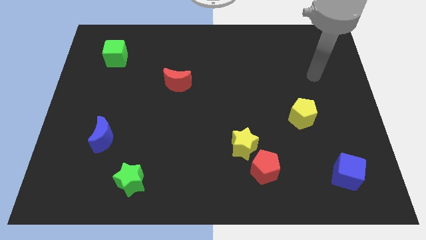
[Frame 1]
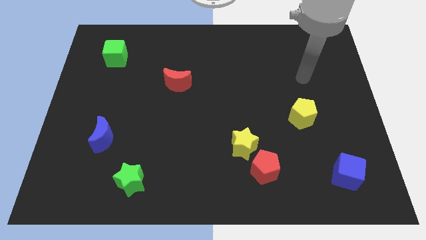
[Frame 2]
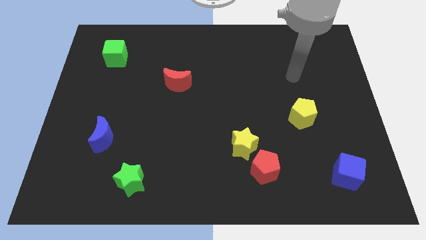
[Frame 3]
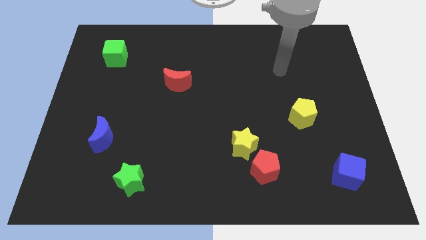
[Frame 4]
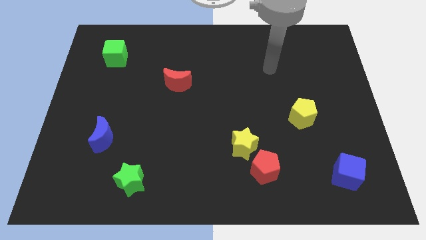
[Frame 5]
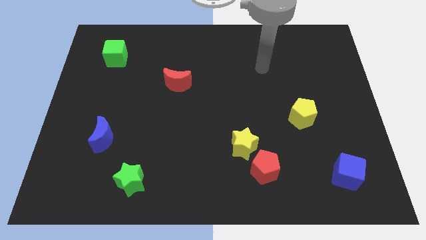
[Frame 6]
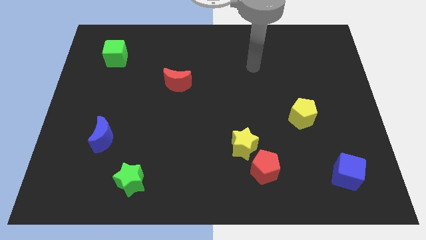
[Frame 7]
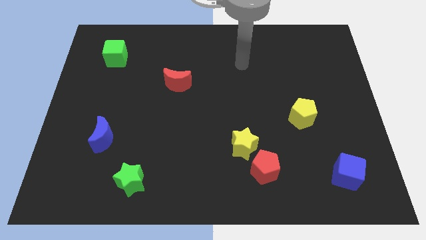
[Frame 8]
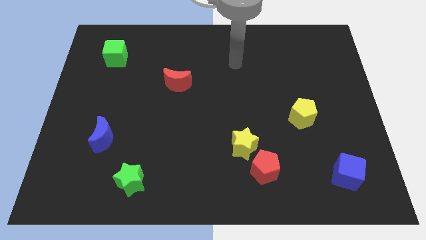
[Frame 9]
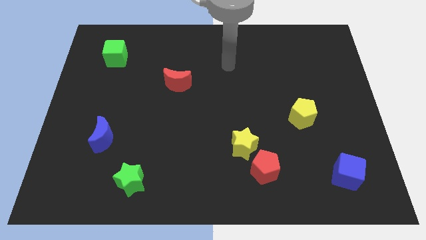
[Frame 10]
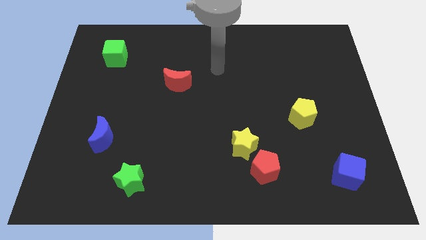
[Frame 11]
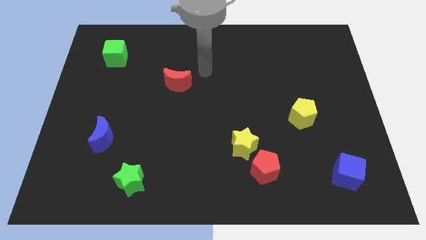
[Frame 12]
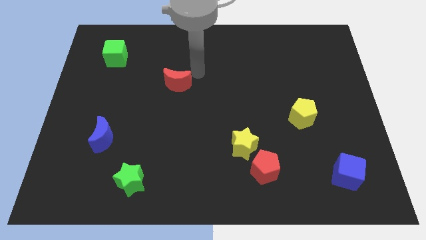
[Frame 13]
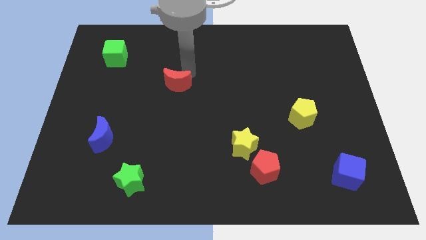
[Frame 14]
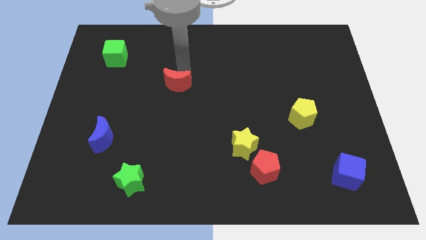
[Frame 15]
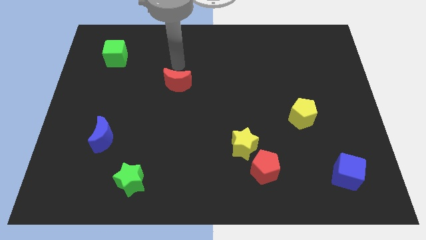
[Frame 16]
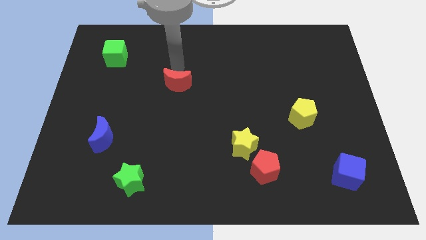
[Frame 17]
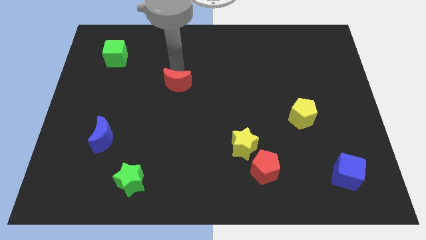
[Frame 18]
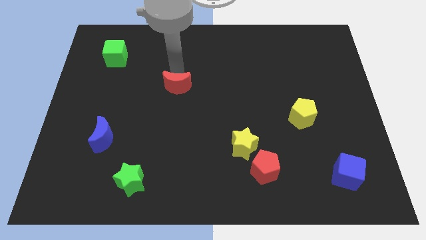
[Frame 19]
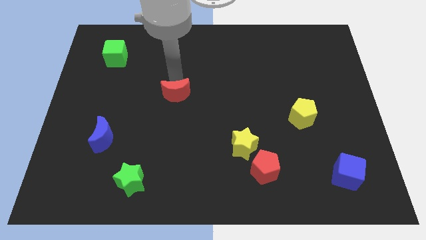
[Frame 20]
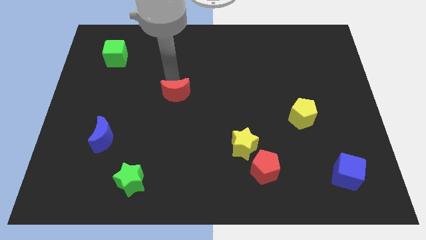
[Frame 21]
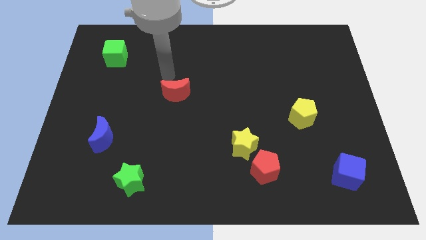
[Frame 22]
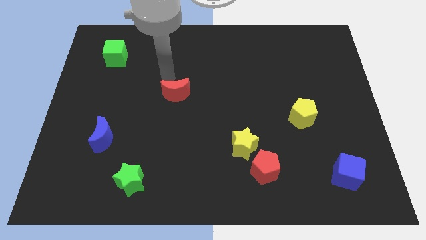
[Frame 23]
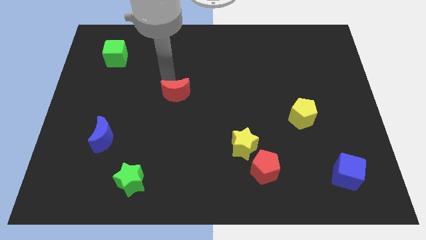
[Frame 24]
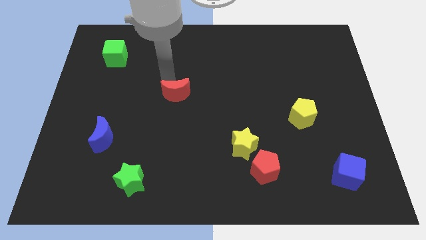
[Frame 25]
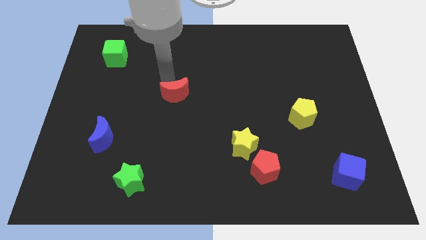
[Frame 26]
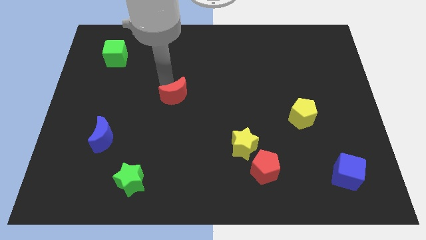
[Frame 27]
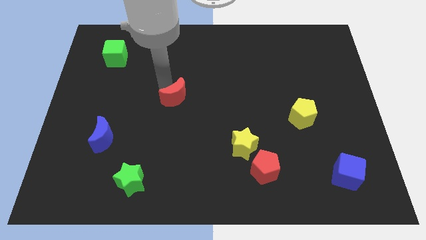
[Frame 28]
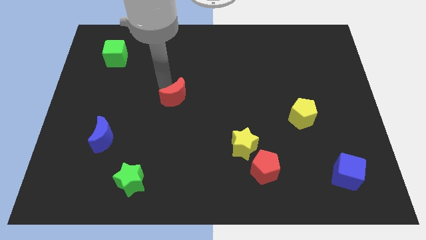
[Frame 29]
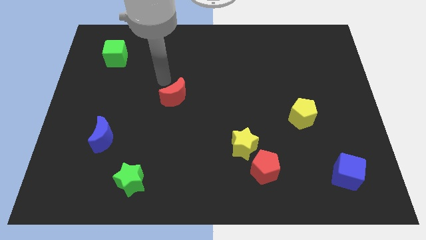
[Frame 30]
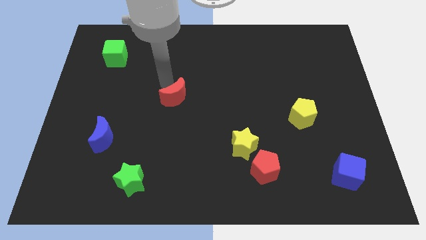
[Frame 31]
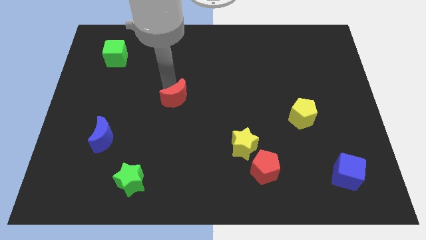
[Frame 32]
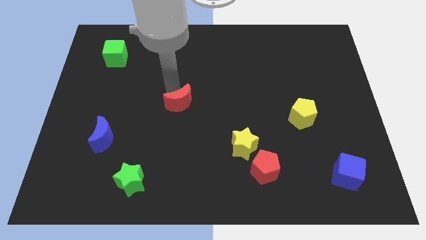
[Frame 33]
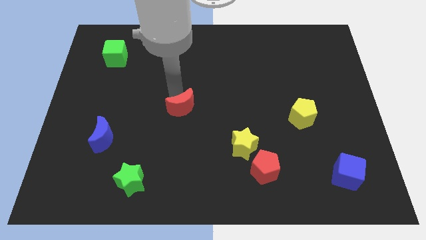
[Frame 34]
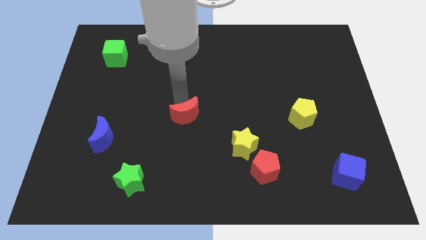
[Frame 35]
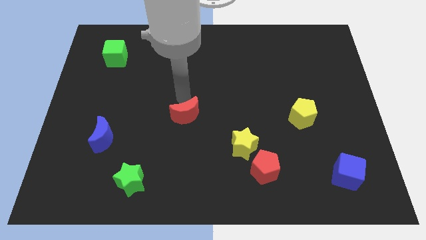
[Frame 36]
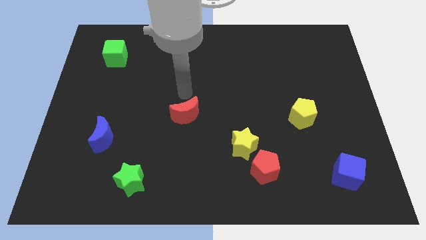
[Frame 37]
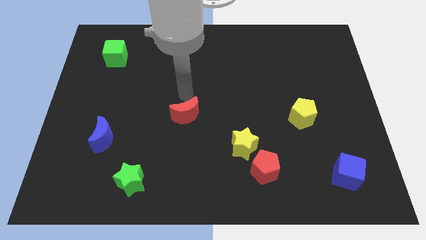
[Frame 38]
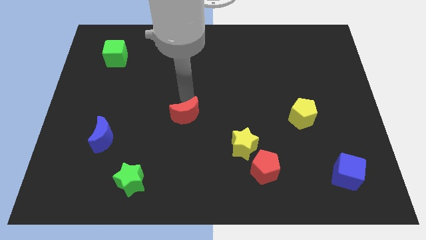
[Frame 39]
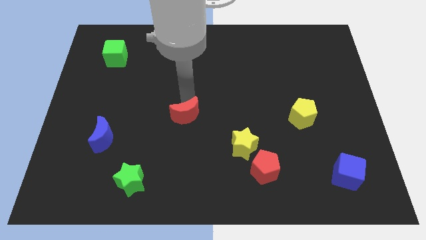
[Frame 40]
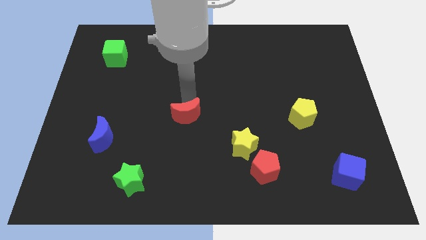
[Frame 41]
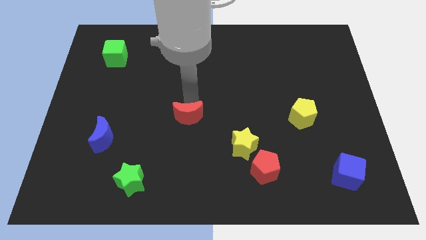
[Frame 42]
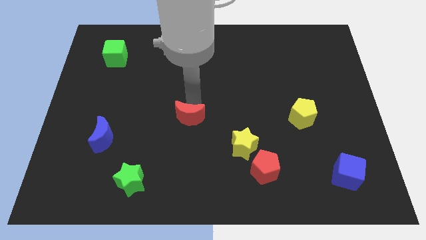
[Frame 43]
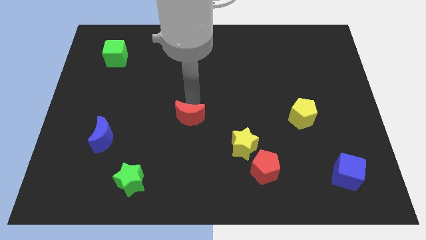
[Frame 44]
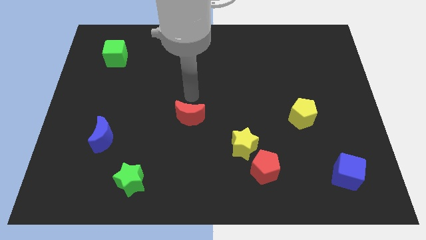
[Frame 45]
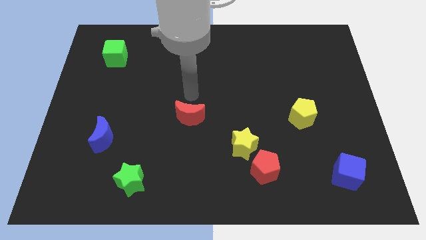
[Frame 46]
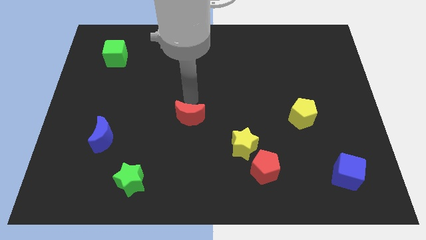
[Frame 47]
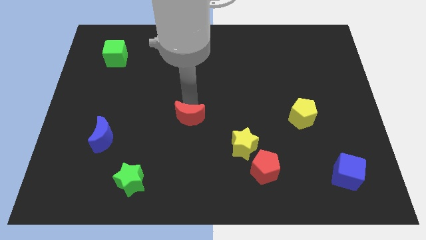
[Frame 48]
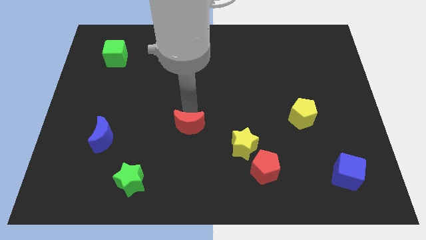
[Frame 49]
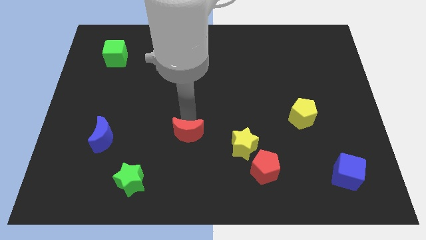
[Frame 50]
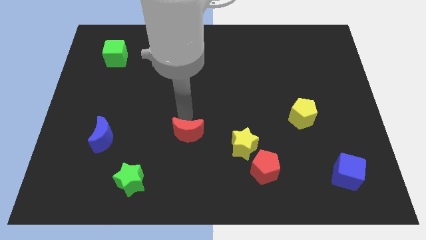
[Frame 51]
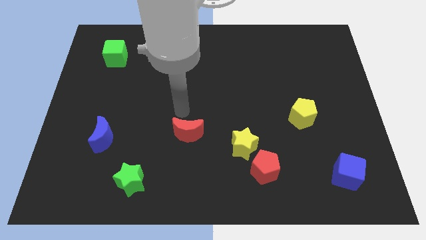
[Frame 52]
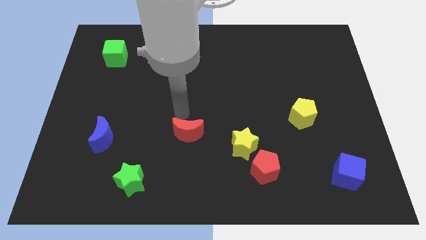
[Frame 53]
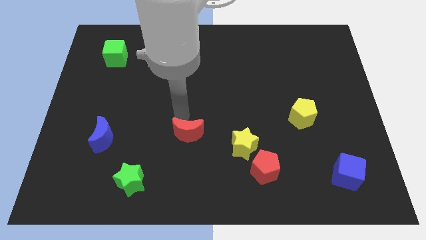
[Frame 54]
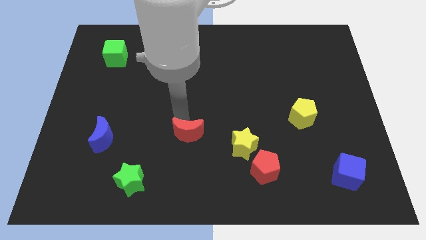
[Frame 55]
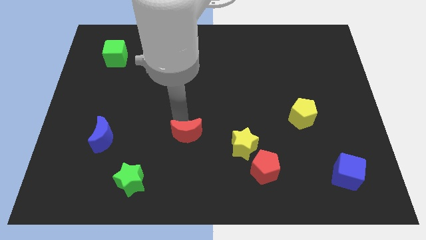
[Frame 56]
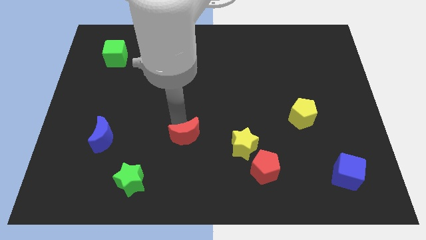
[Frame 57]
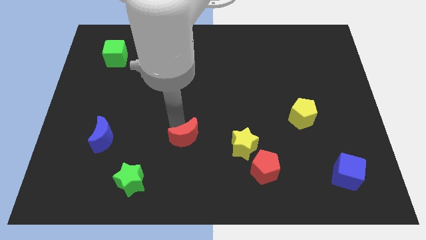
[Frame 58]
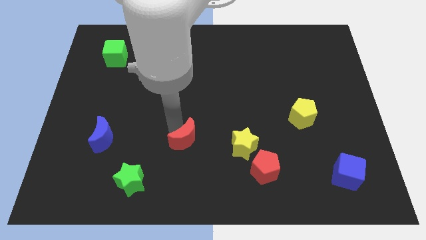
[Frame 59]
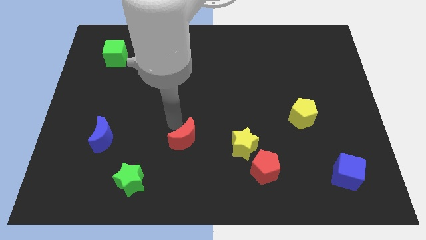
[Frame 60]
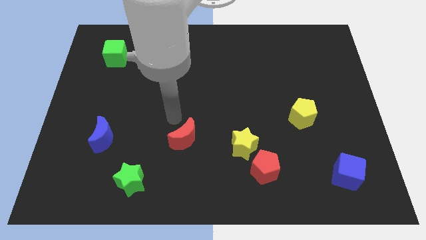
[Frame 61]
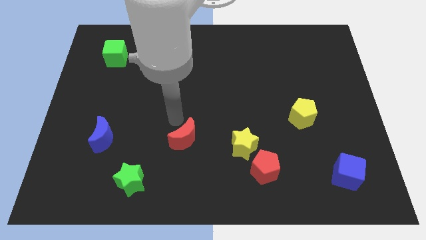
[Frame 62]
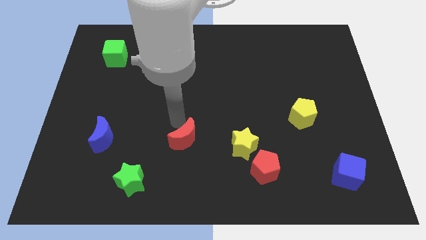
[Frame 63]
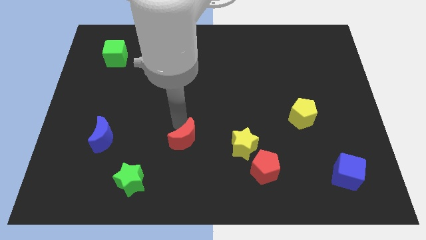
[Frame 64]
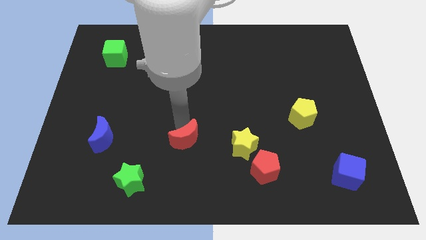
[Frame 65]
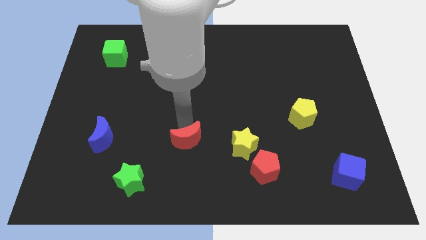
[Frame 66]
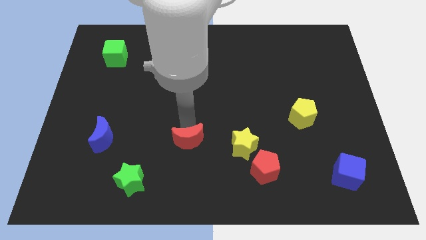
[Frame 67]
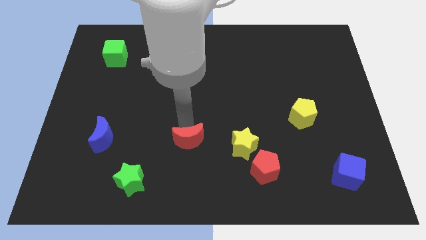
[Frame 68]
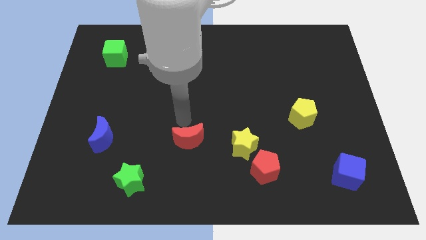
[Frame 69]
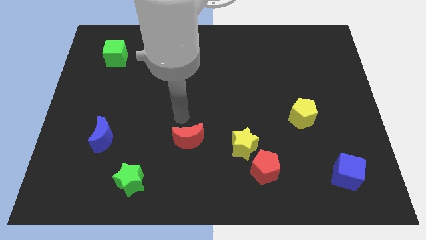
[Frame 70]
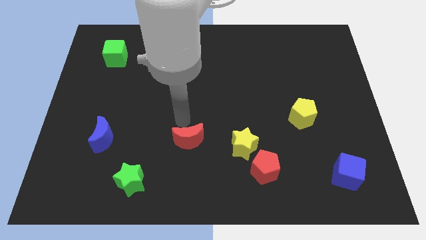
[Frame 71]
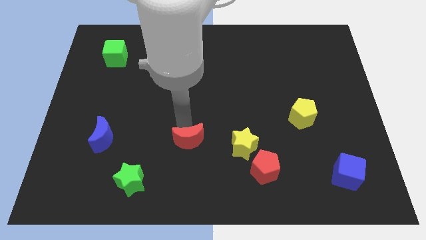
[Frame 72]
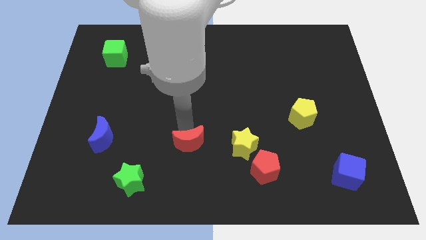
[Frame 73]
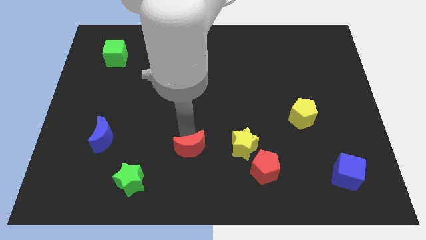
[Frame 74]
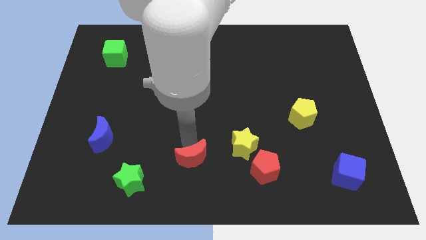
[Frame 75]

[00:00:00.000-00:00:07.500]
push the red moon to the bottom side
